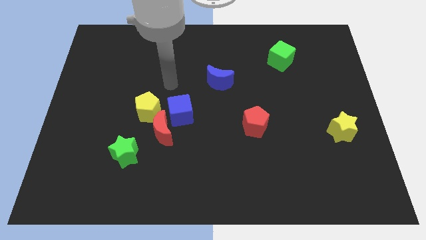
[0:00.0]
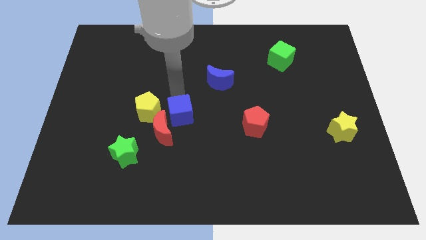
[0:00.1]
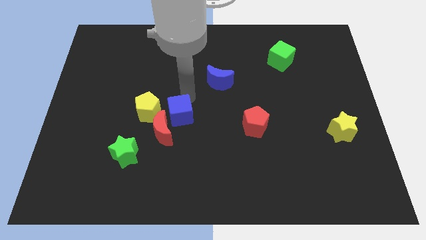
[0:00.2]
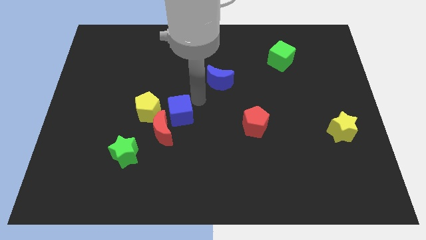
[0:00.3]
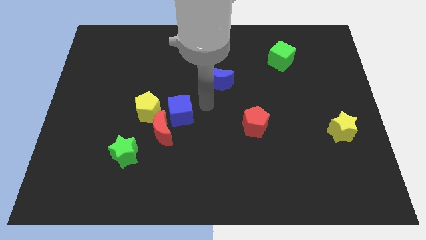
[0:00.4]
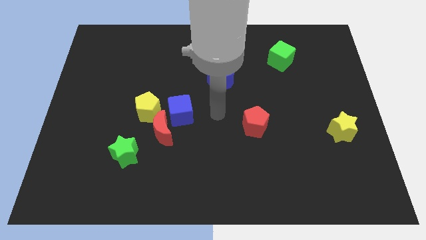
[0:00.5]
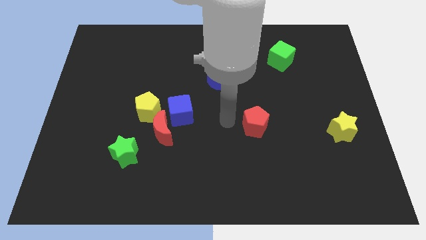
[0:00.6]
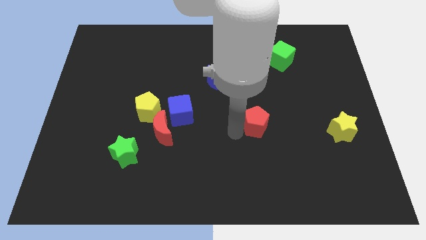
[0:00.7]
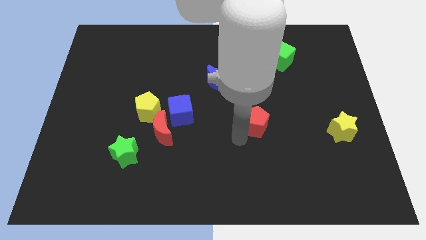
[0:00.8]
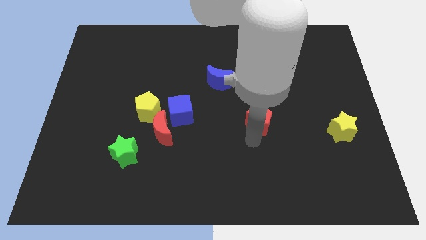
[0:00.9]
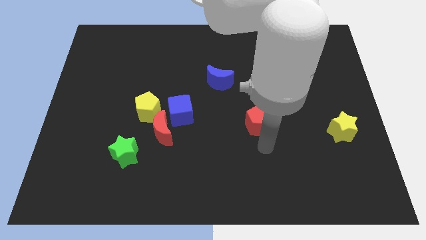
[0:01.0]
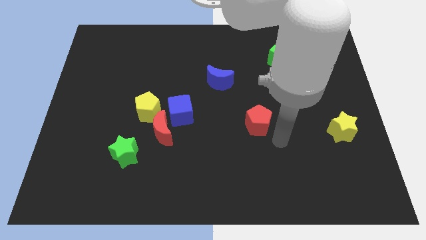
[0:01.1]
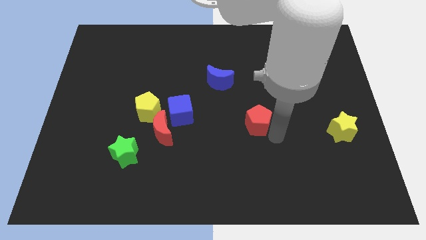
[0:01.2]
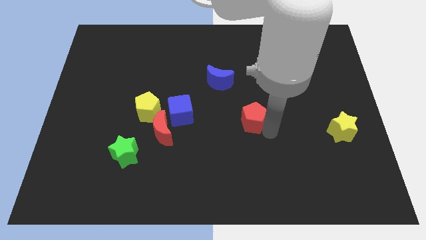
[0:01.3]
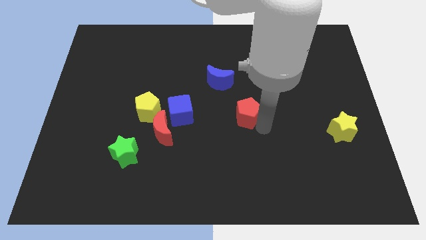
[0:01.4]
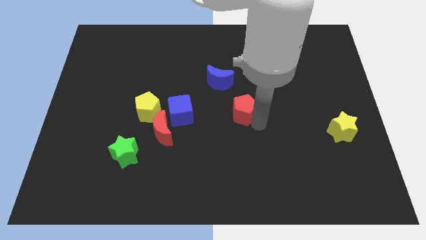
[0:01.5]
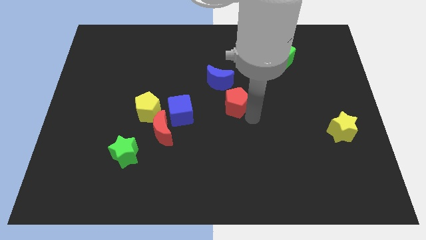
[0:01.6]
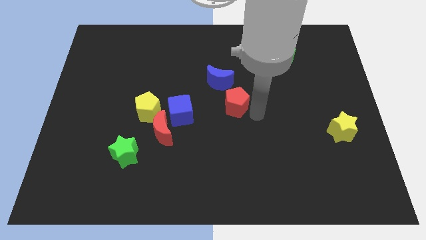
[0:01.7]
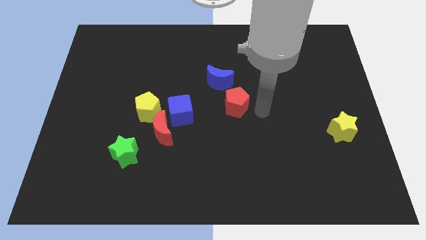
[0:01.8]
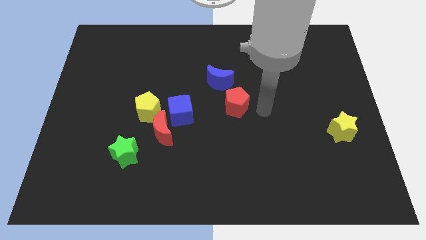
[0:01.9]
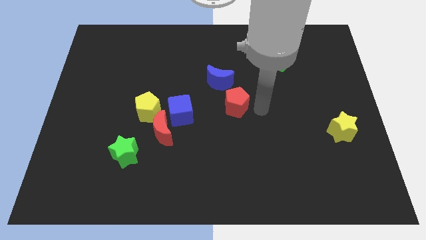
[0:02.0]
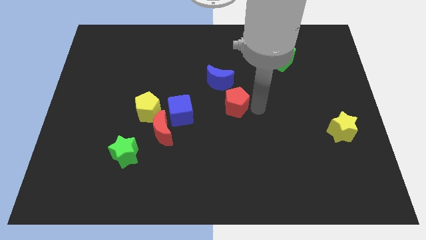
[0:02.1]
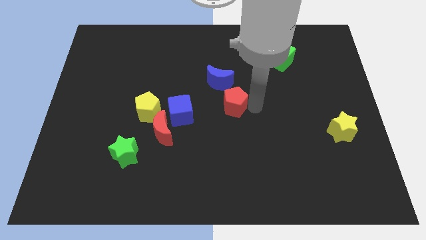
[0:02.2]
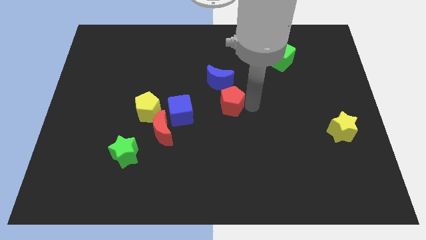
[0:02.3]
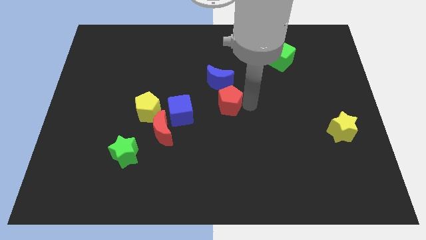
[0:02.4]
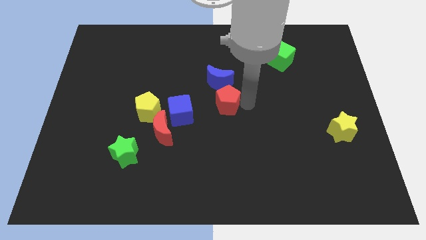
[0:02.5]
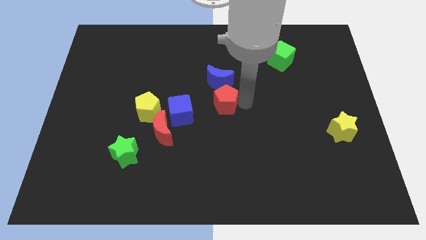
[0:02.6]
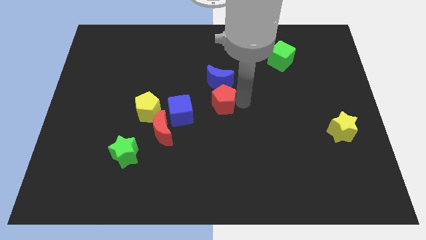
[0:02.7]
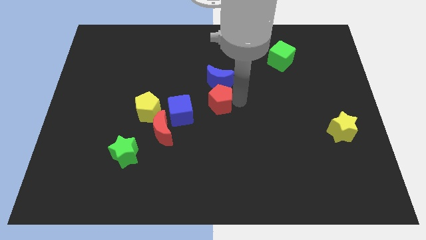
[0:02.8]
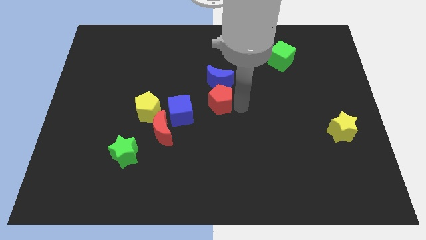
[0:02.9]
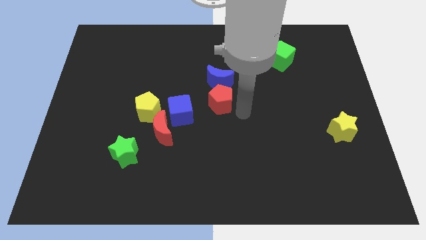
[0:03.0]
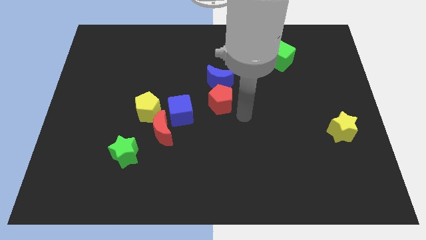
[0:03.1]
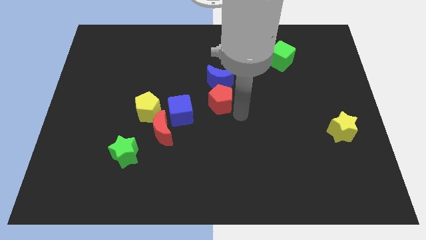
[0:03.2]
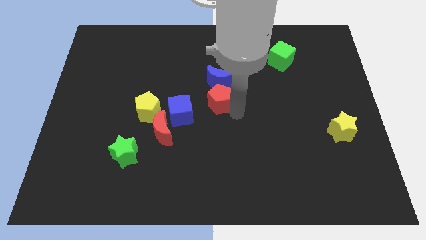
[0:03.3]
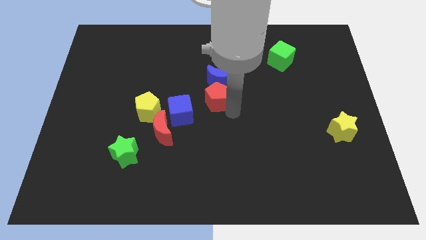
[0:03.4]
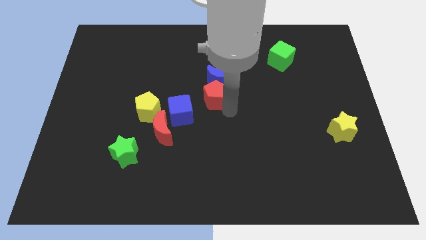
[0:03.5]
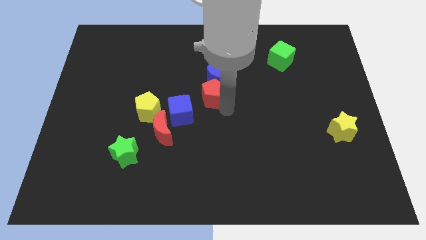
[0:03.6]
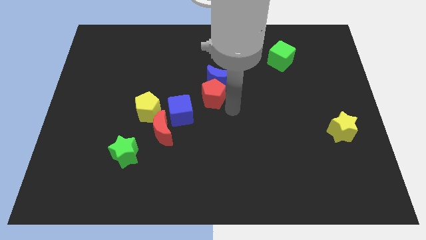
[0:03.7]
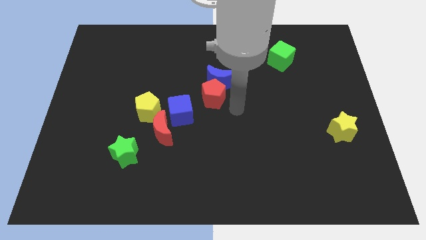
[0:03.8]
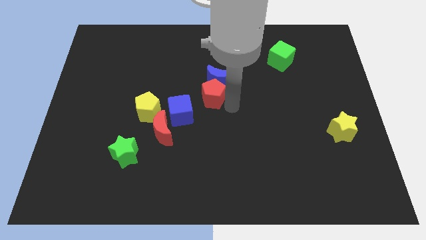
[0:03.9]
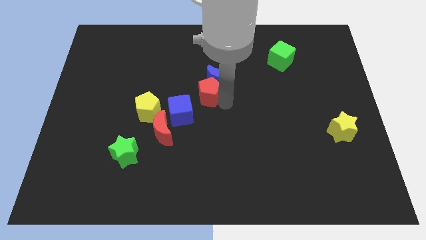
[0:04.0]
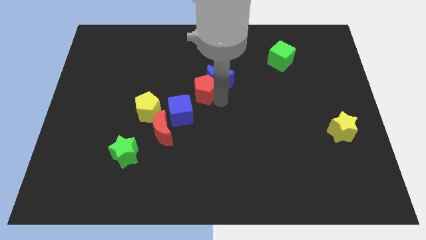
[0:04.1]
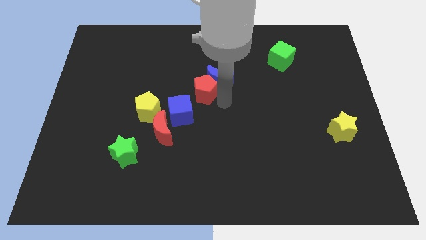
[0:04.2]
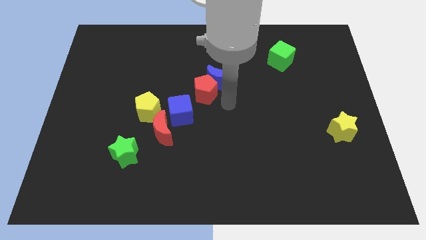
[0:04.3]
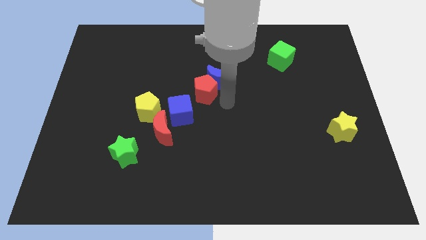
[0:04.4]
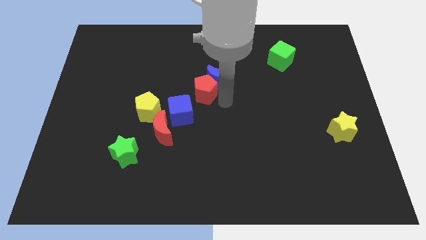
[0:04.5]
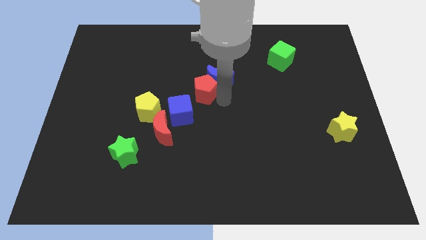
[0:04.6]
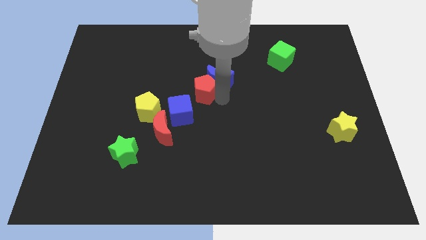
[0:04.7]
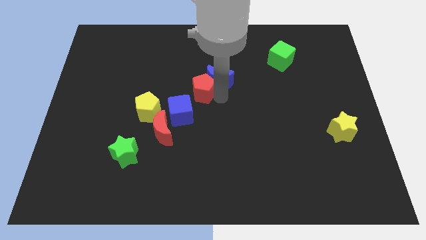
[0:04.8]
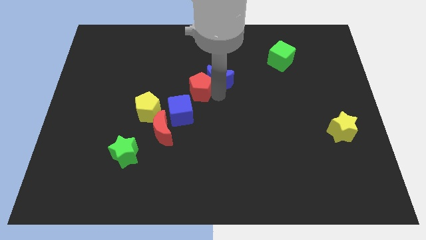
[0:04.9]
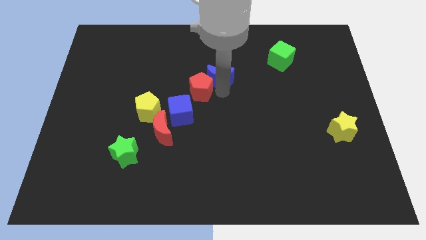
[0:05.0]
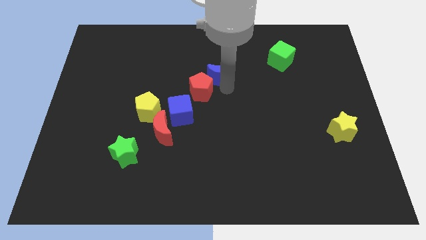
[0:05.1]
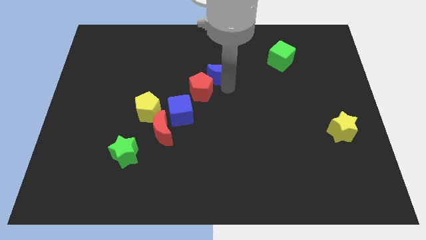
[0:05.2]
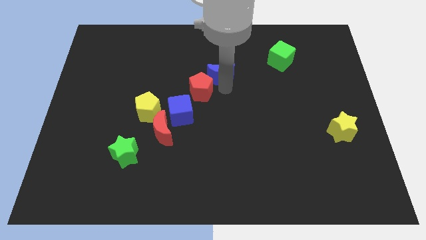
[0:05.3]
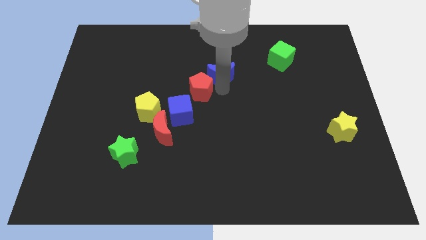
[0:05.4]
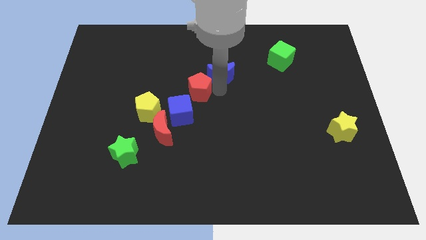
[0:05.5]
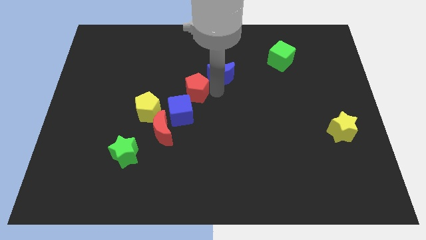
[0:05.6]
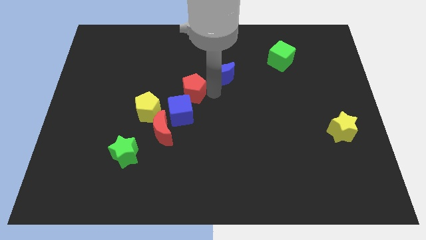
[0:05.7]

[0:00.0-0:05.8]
move the red pentagon diagonally up and to the right of the yellow pentagon

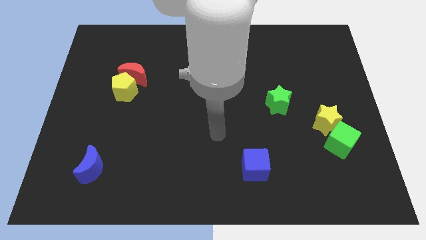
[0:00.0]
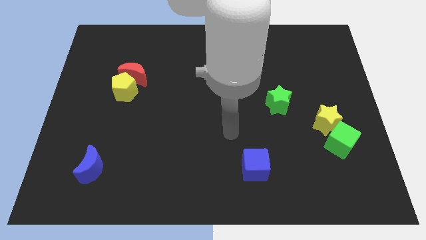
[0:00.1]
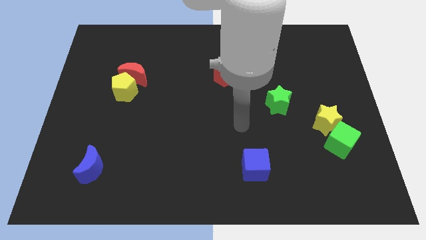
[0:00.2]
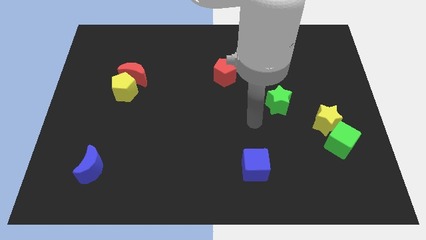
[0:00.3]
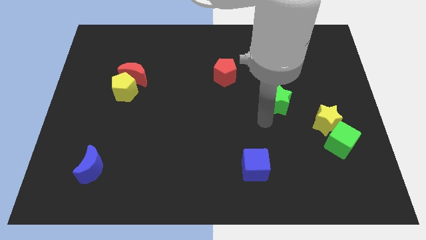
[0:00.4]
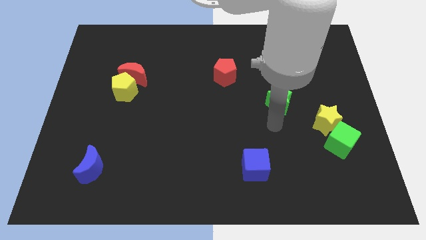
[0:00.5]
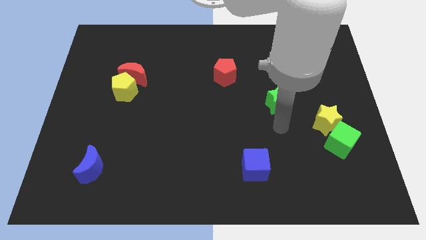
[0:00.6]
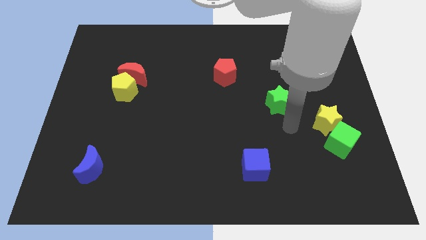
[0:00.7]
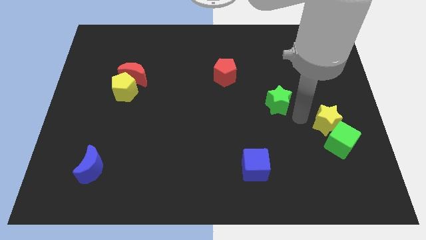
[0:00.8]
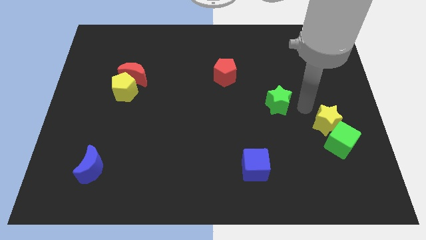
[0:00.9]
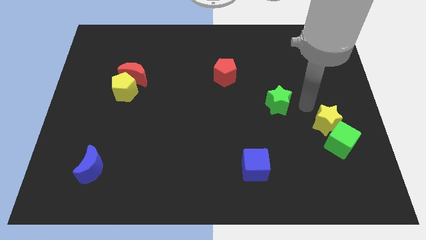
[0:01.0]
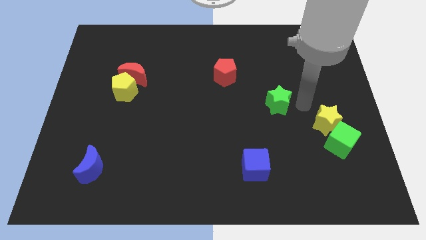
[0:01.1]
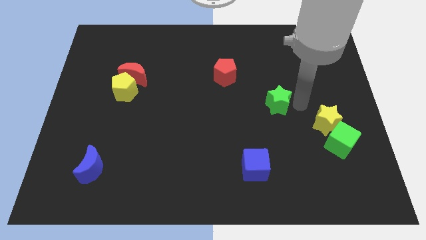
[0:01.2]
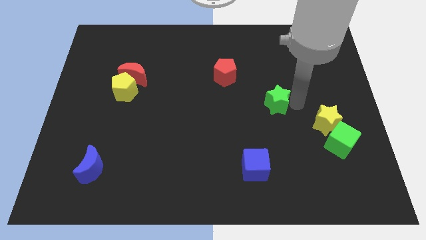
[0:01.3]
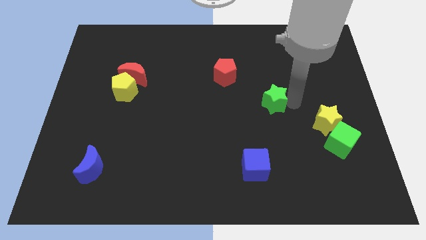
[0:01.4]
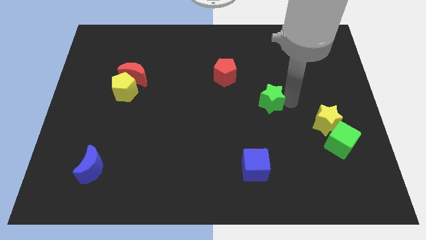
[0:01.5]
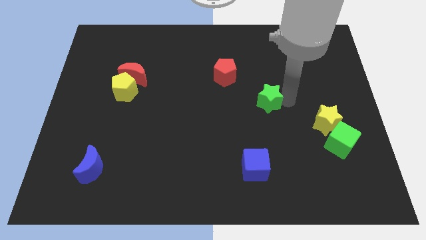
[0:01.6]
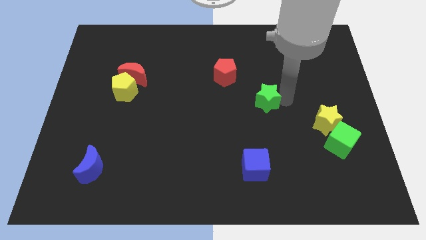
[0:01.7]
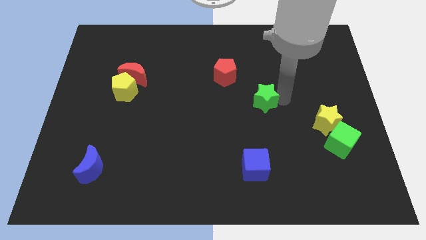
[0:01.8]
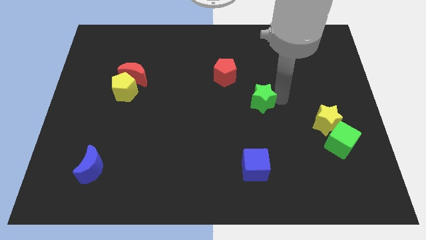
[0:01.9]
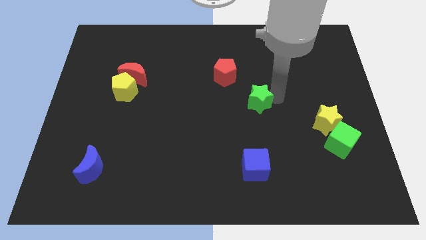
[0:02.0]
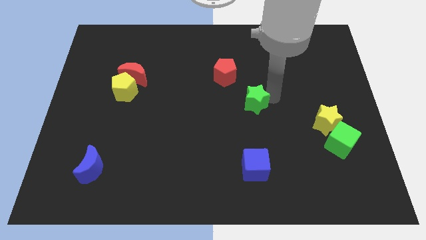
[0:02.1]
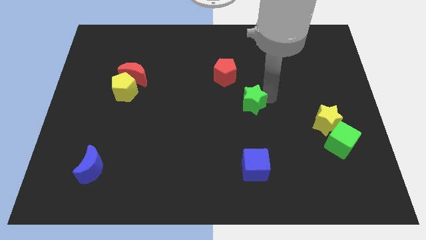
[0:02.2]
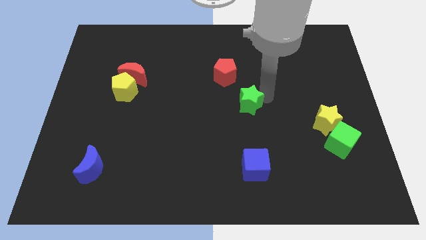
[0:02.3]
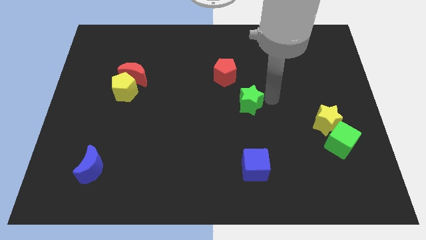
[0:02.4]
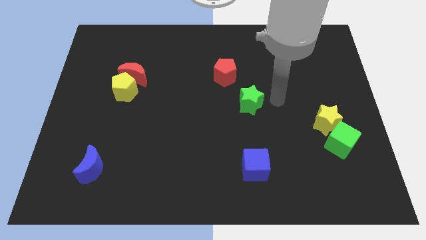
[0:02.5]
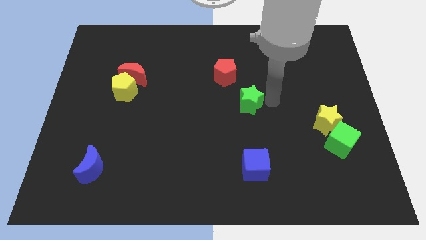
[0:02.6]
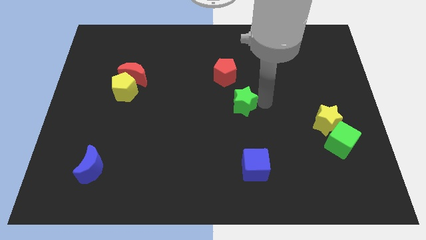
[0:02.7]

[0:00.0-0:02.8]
put the green star below the red pentagon
